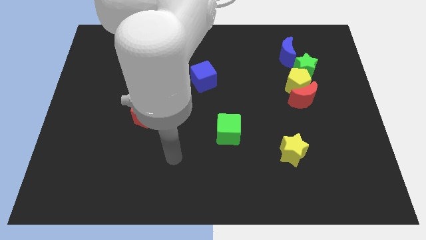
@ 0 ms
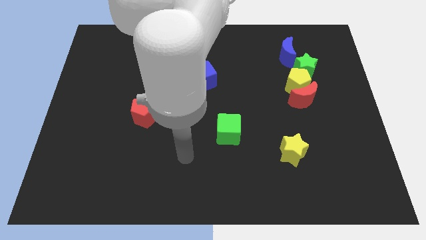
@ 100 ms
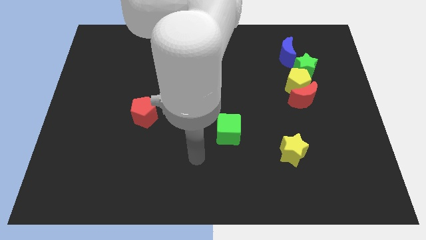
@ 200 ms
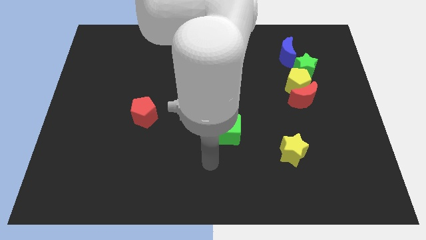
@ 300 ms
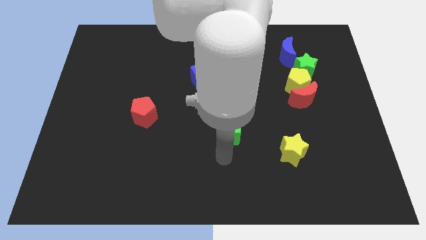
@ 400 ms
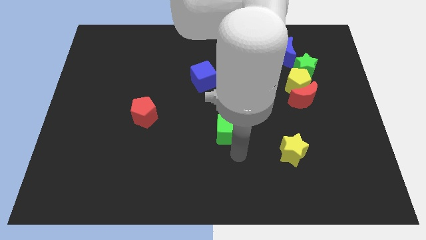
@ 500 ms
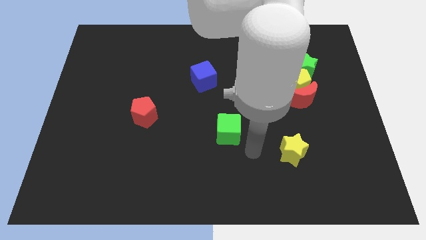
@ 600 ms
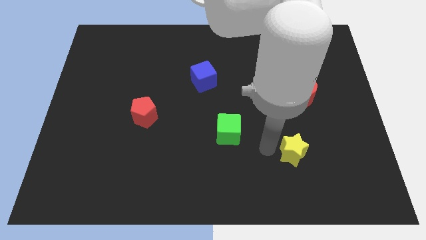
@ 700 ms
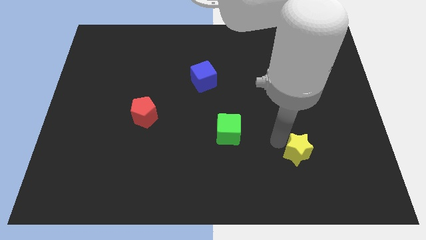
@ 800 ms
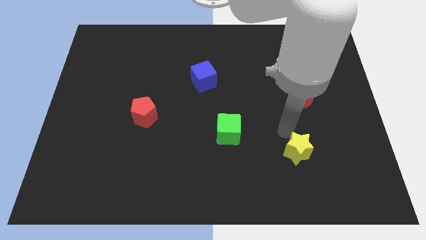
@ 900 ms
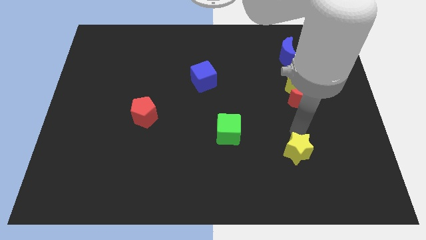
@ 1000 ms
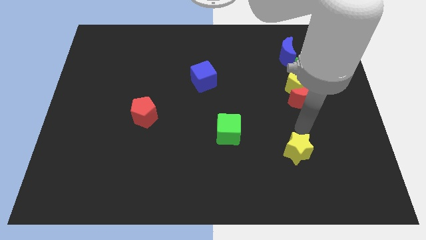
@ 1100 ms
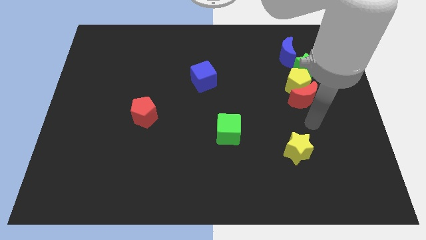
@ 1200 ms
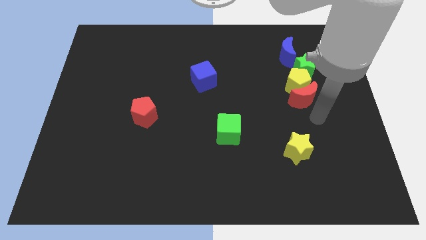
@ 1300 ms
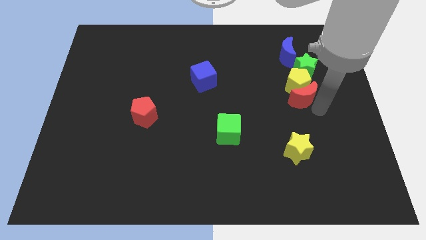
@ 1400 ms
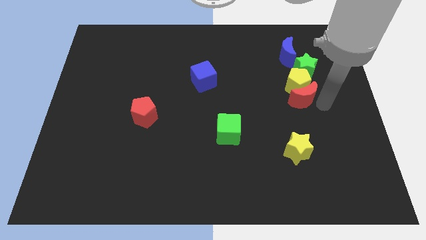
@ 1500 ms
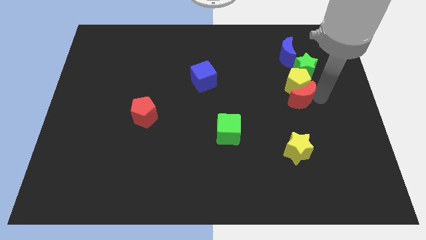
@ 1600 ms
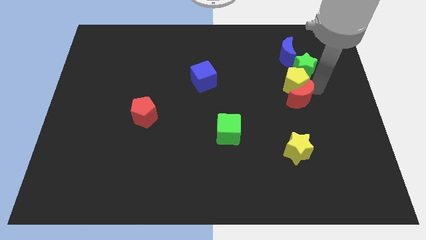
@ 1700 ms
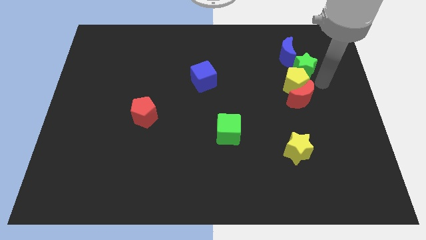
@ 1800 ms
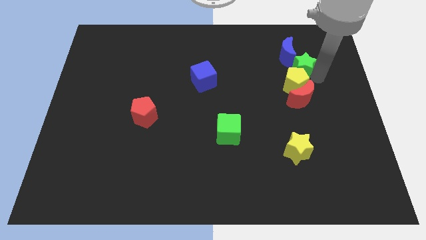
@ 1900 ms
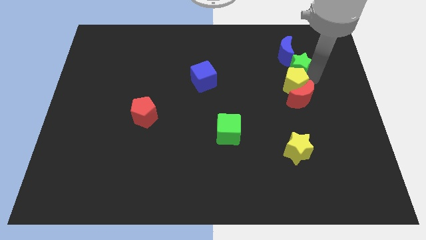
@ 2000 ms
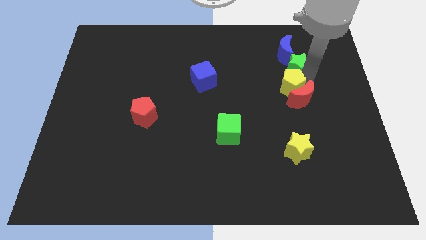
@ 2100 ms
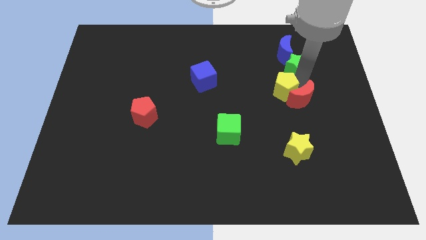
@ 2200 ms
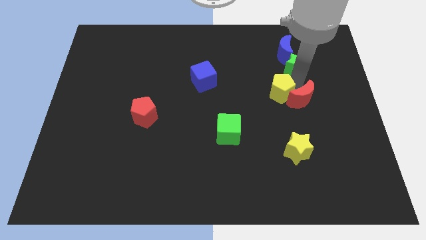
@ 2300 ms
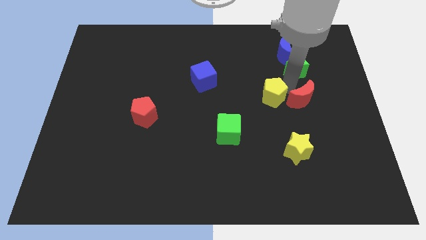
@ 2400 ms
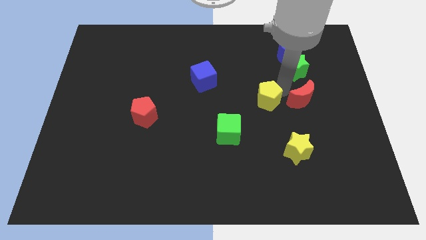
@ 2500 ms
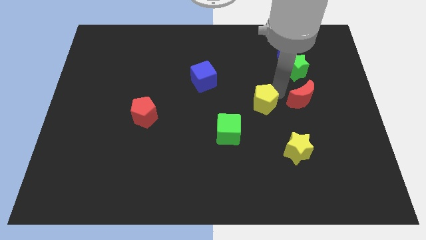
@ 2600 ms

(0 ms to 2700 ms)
pull the yellow pentagon apart from the red moon and green star

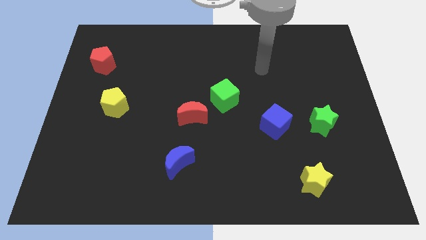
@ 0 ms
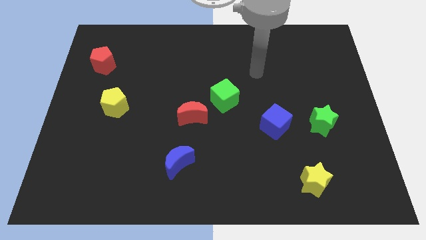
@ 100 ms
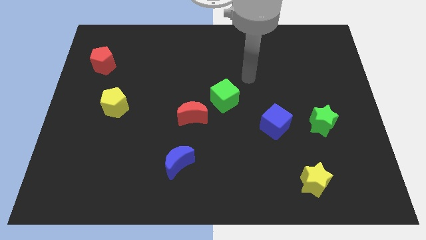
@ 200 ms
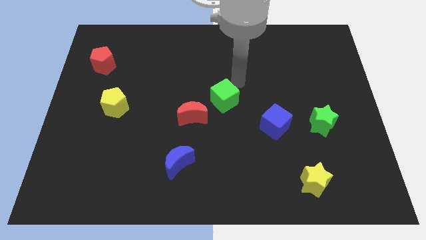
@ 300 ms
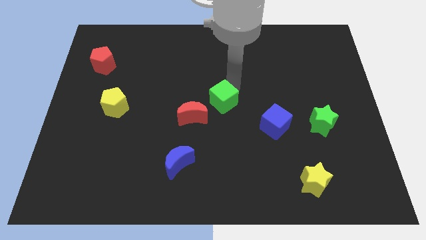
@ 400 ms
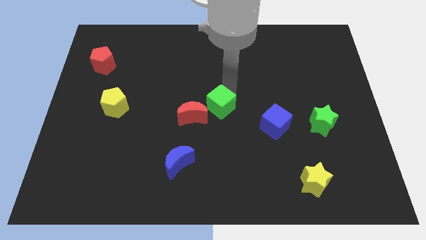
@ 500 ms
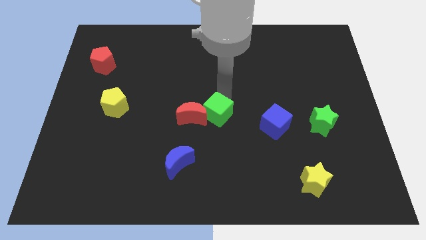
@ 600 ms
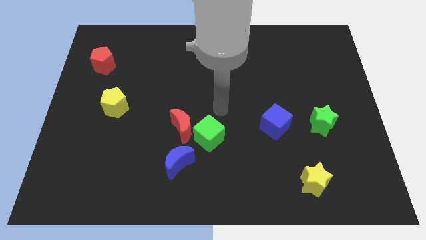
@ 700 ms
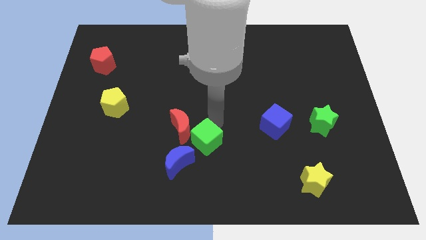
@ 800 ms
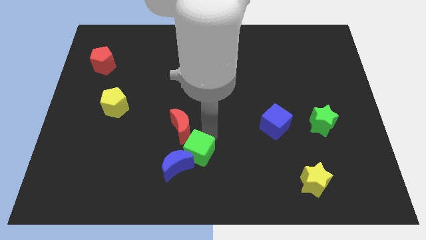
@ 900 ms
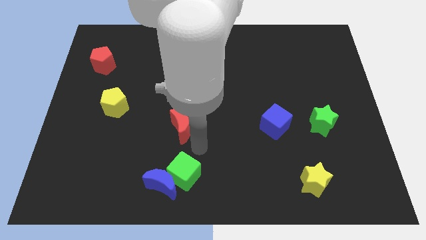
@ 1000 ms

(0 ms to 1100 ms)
separate the red moon from the green cube

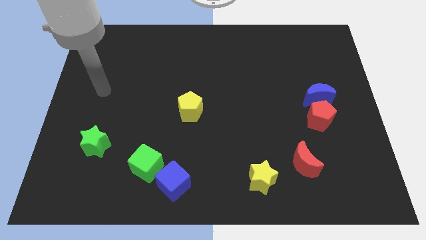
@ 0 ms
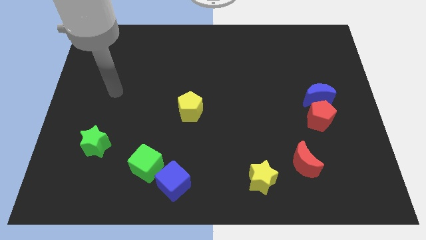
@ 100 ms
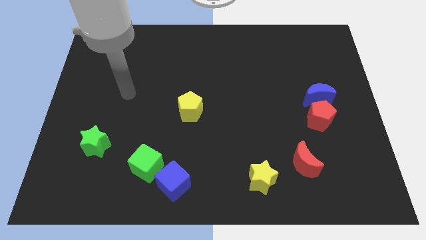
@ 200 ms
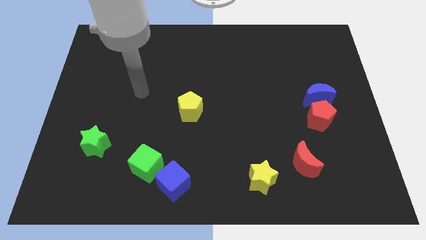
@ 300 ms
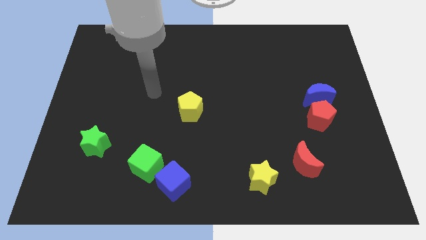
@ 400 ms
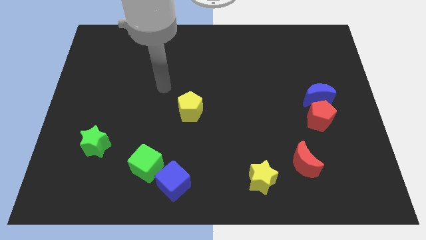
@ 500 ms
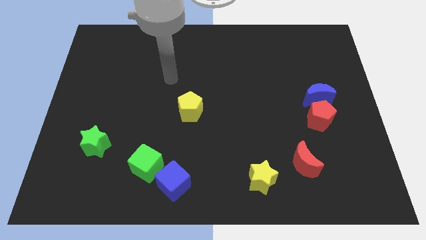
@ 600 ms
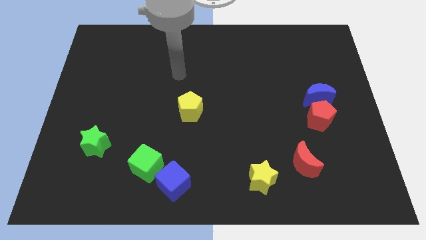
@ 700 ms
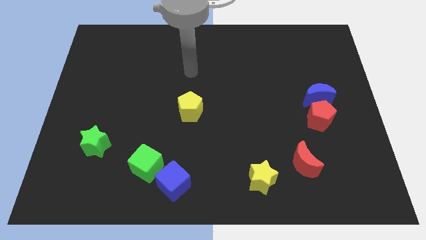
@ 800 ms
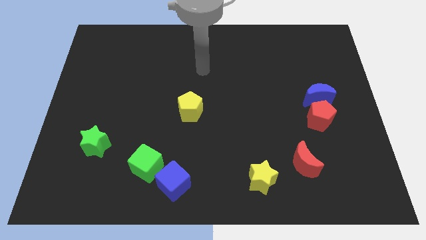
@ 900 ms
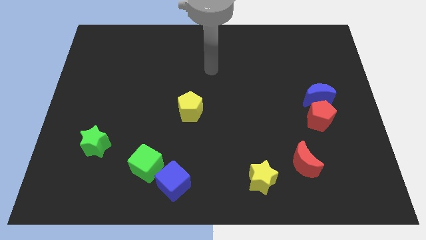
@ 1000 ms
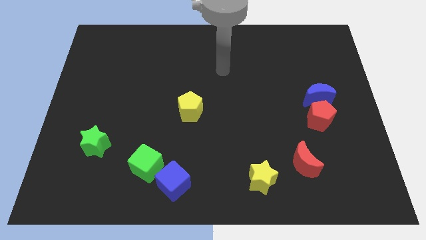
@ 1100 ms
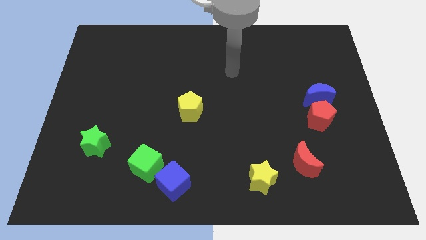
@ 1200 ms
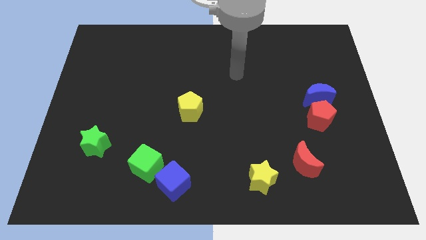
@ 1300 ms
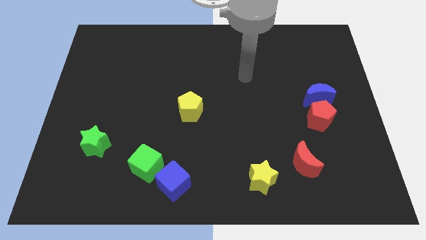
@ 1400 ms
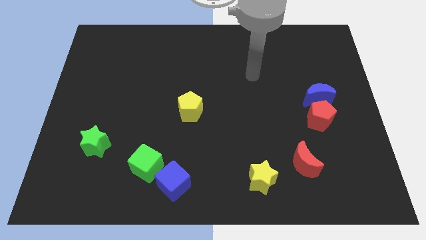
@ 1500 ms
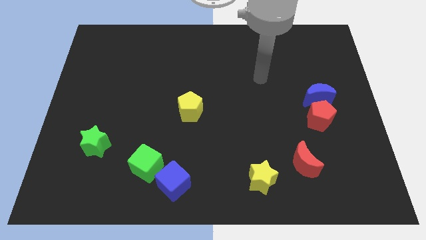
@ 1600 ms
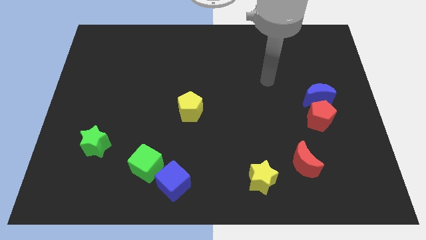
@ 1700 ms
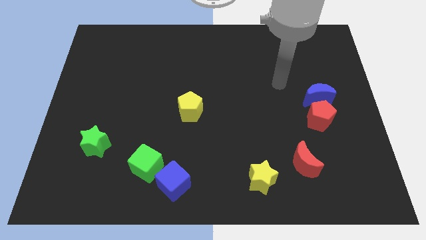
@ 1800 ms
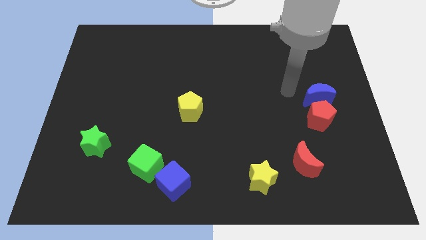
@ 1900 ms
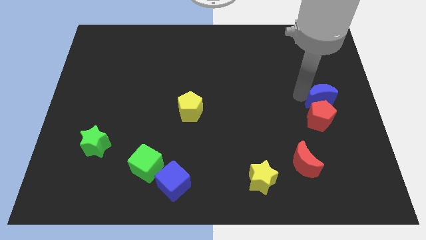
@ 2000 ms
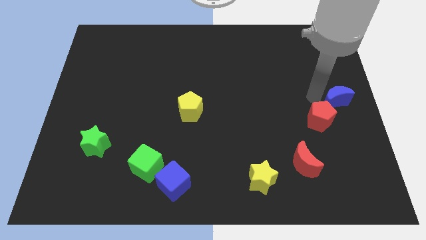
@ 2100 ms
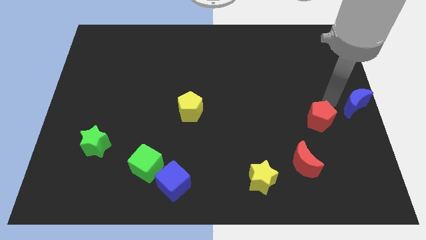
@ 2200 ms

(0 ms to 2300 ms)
pull the red pentagon apart from the blue moon

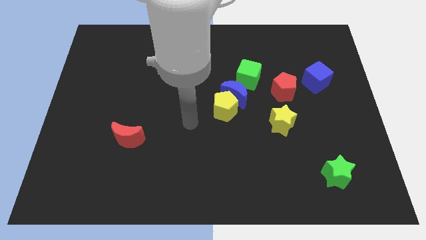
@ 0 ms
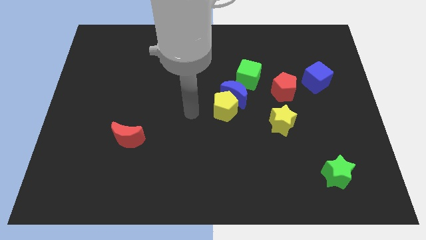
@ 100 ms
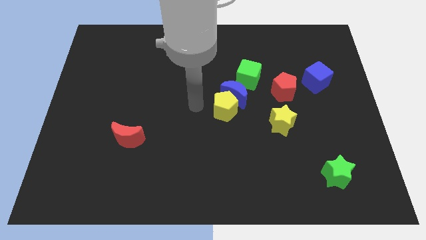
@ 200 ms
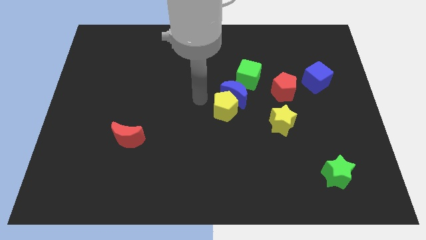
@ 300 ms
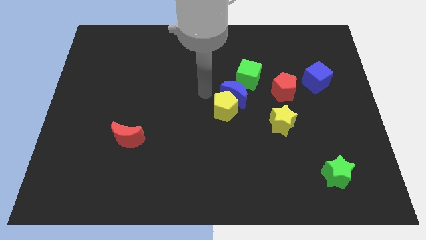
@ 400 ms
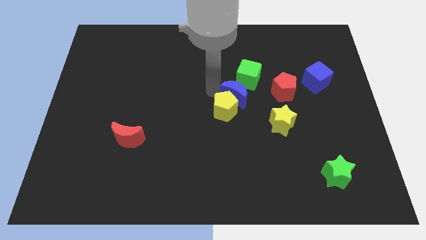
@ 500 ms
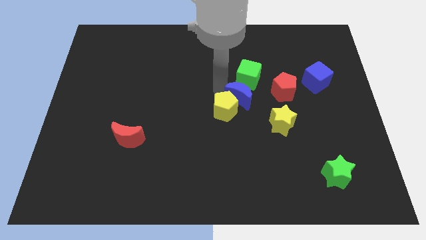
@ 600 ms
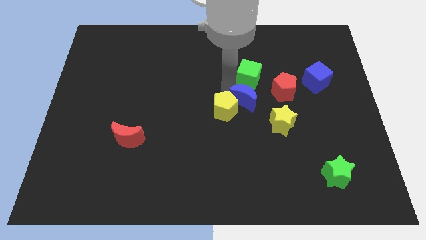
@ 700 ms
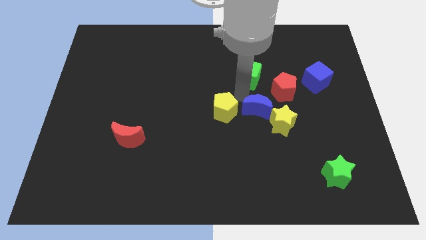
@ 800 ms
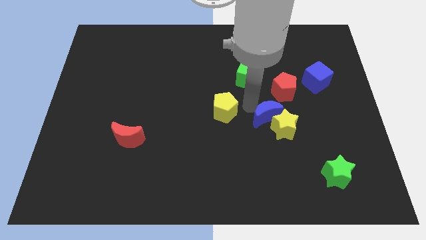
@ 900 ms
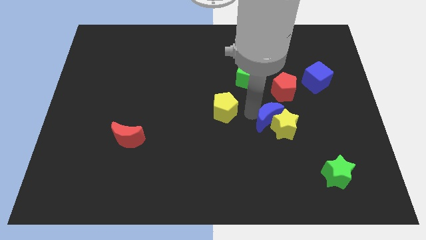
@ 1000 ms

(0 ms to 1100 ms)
move the yellow pentagon away from the blue moon

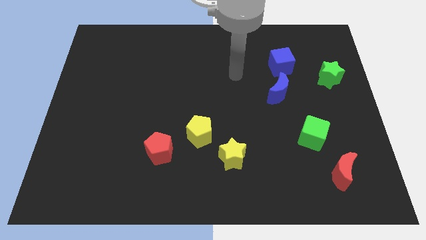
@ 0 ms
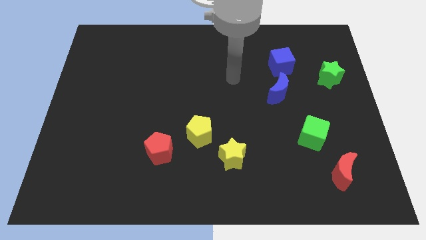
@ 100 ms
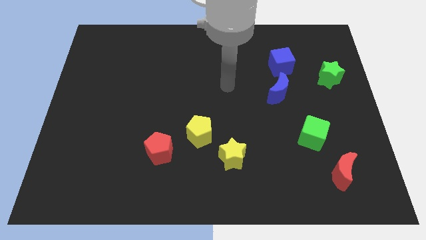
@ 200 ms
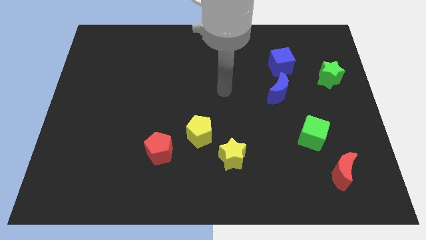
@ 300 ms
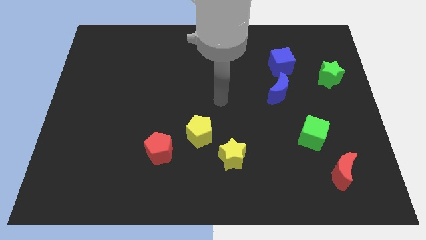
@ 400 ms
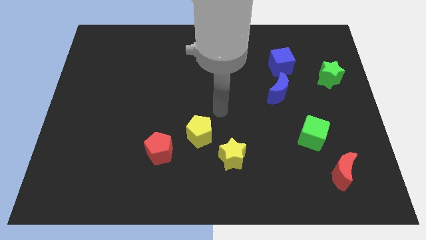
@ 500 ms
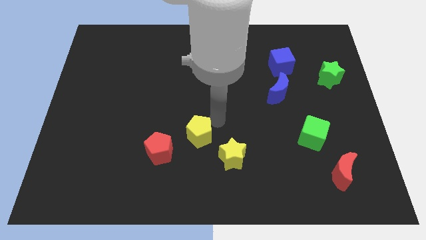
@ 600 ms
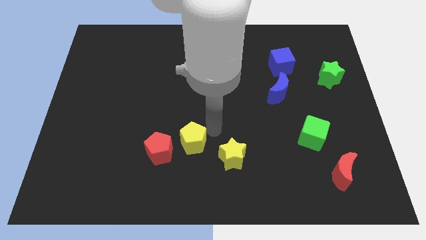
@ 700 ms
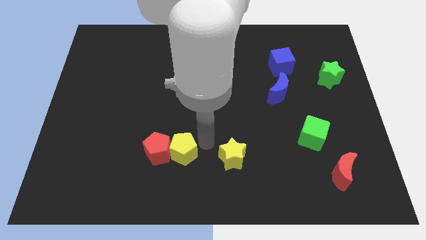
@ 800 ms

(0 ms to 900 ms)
separate the yellow star from the yellow pentagon

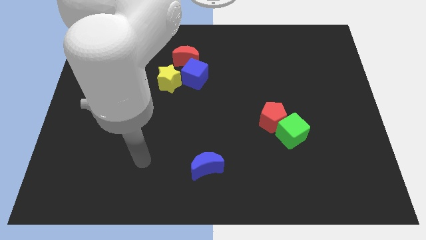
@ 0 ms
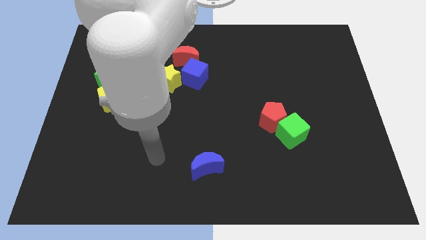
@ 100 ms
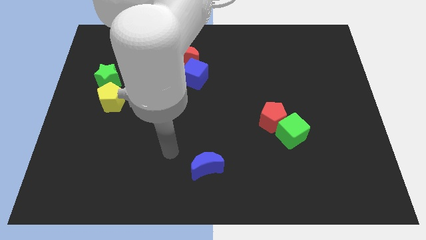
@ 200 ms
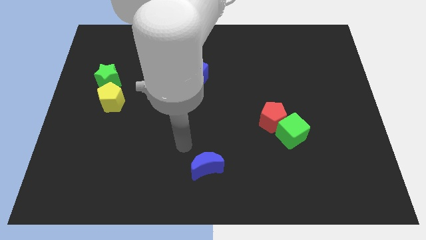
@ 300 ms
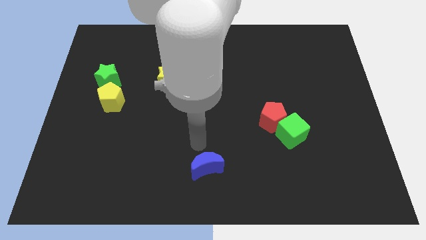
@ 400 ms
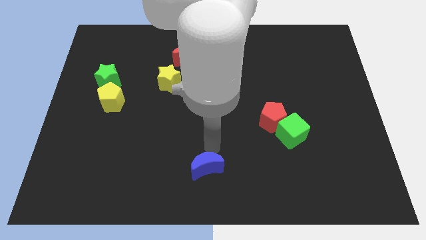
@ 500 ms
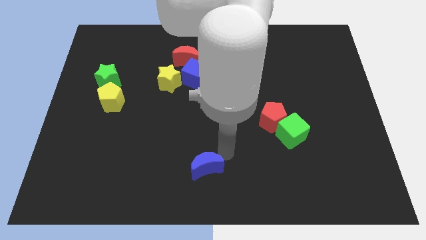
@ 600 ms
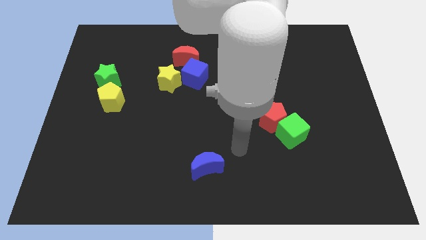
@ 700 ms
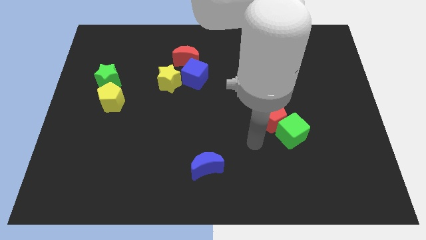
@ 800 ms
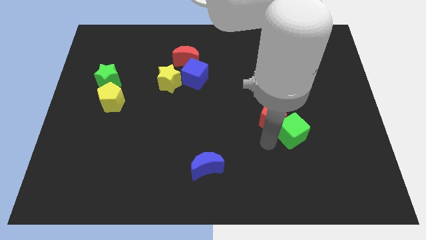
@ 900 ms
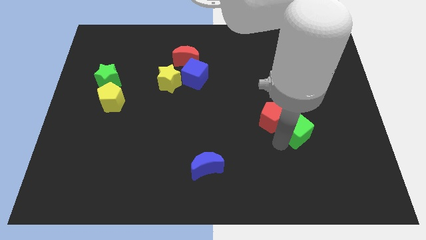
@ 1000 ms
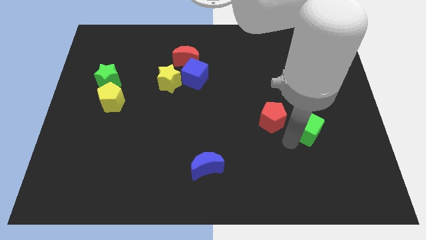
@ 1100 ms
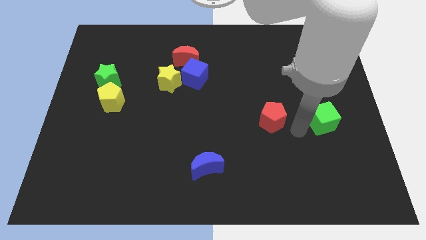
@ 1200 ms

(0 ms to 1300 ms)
separate the red pentagon from the green cube
